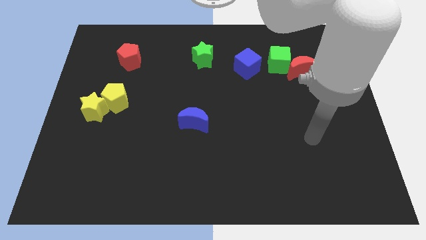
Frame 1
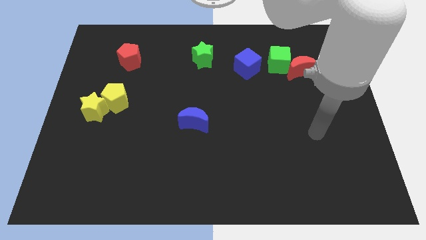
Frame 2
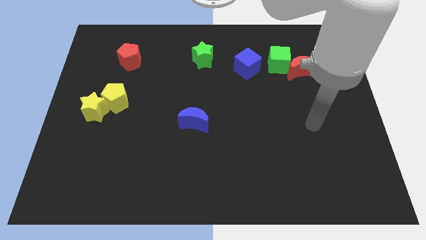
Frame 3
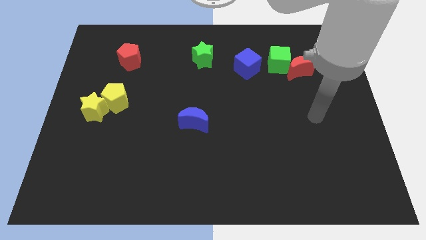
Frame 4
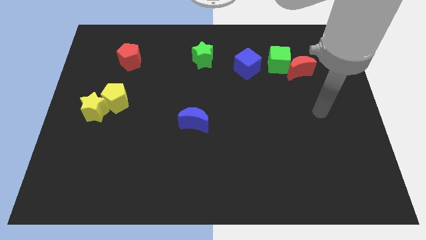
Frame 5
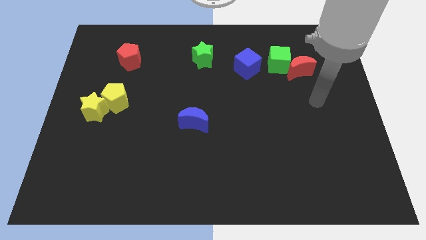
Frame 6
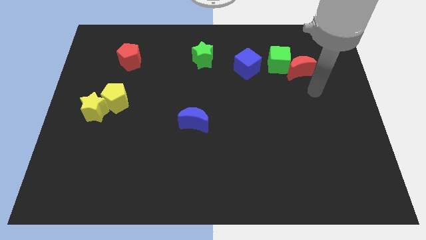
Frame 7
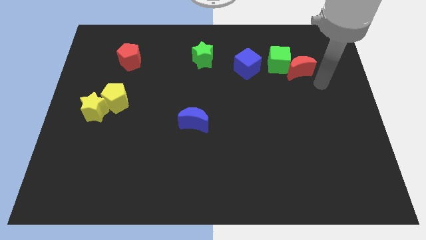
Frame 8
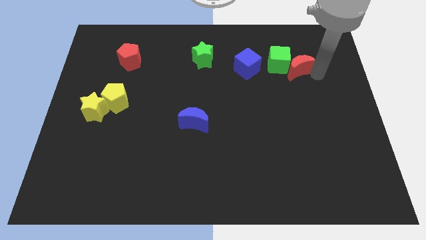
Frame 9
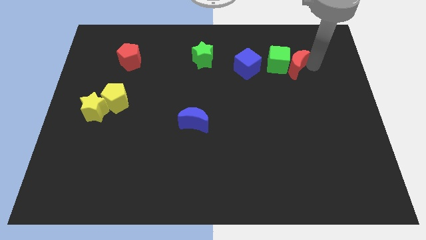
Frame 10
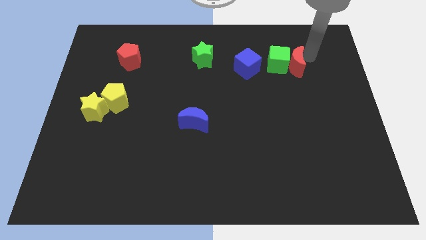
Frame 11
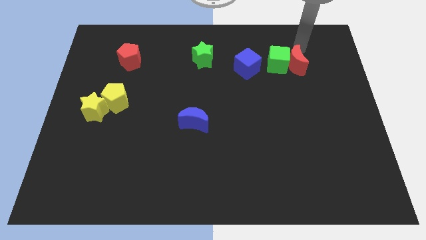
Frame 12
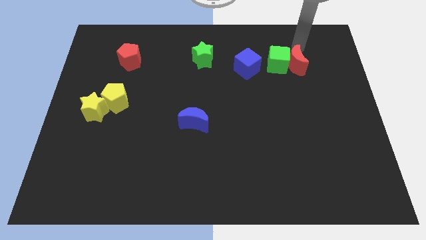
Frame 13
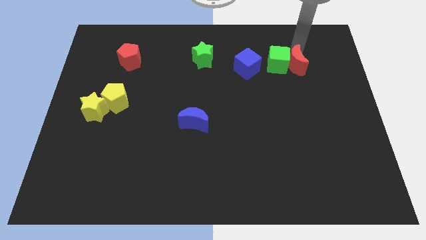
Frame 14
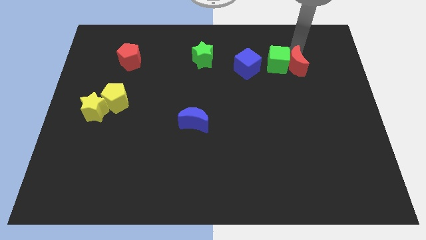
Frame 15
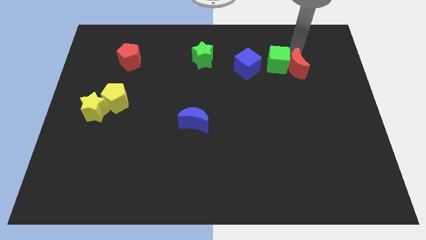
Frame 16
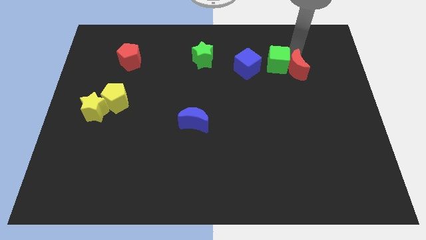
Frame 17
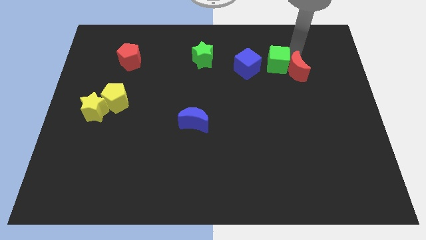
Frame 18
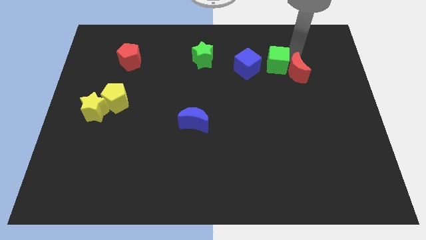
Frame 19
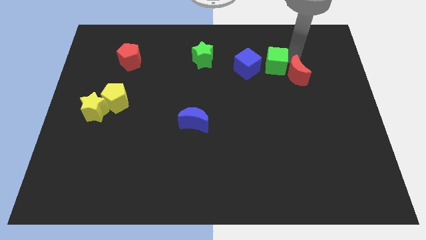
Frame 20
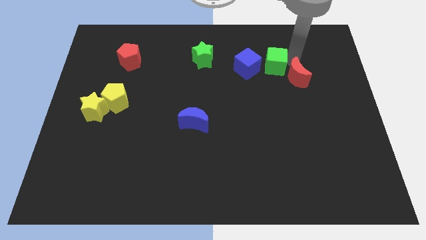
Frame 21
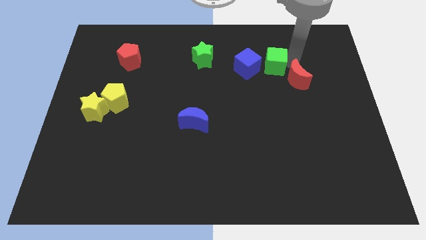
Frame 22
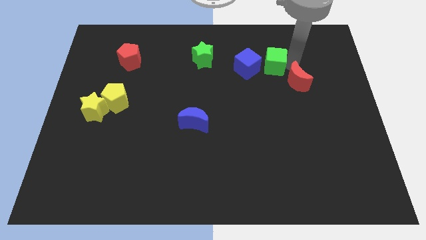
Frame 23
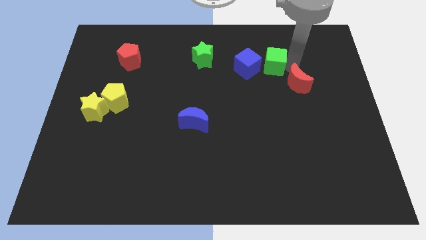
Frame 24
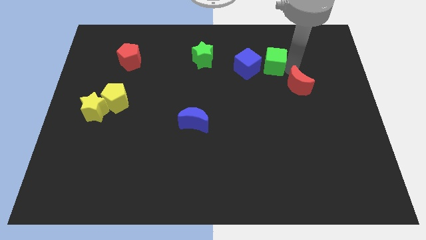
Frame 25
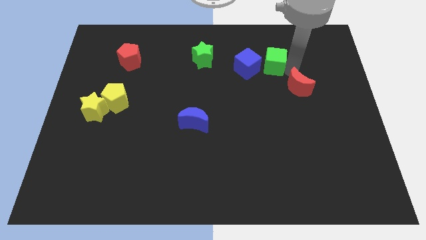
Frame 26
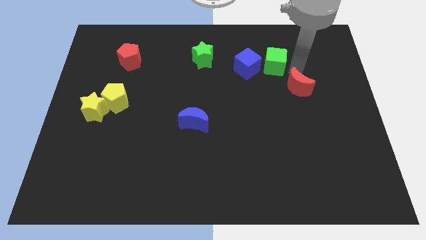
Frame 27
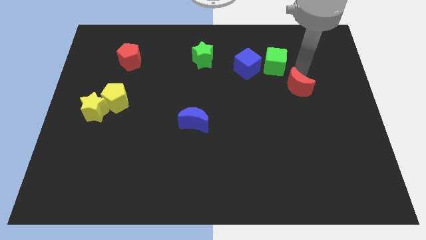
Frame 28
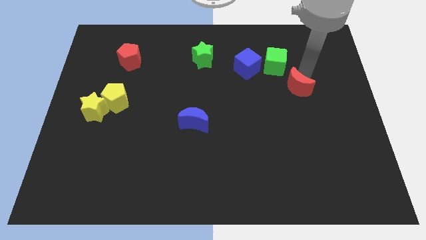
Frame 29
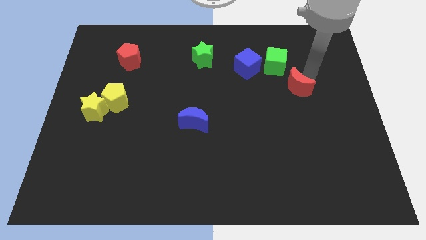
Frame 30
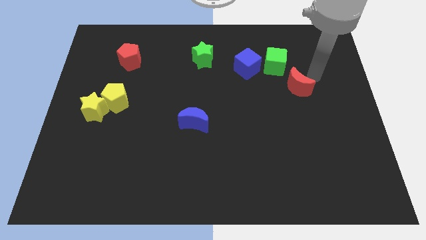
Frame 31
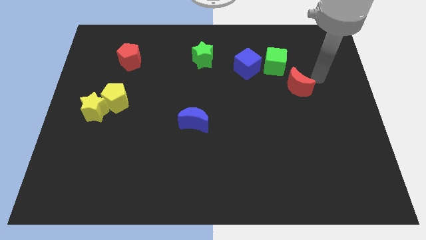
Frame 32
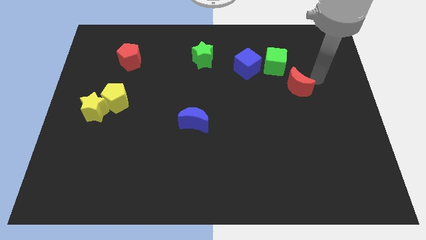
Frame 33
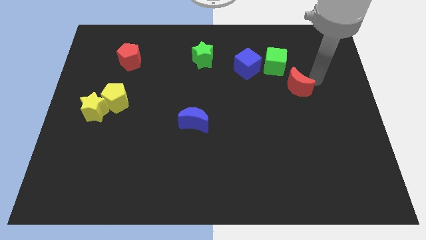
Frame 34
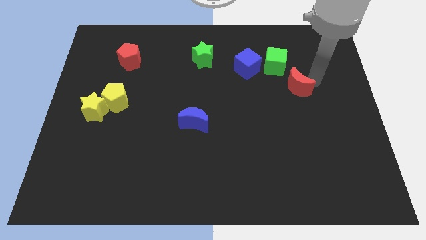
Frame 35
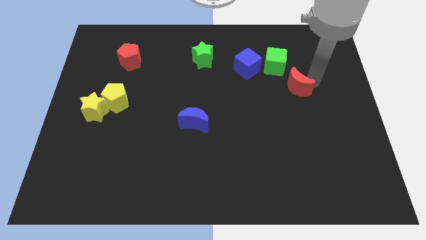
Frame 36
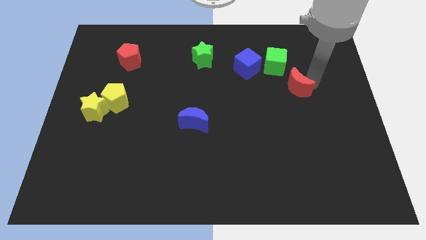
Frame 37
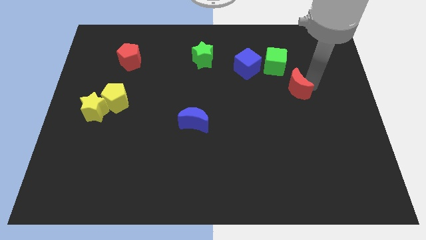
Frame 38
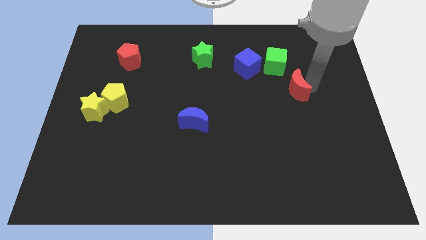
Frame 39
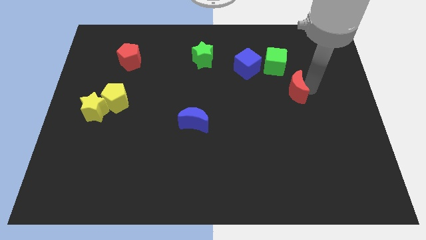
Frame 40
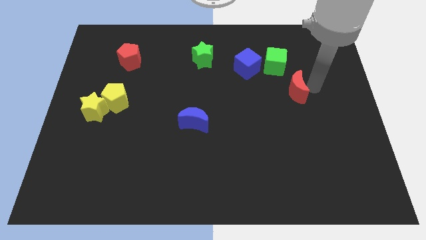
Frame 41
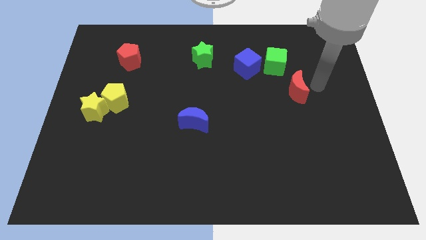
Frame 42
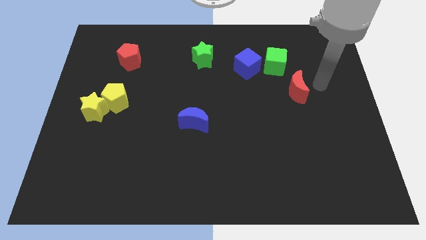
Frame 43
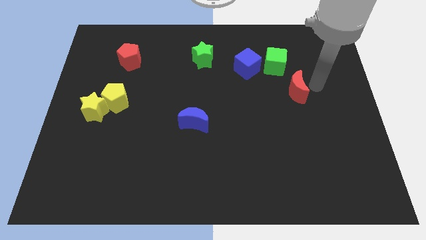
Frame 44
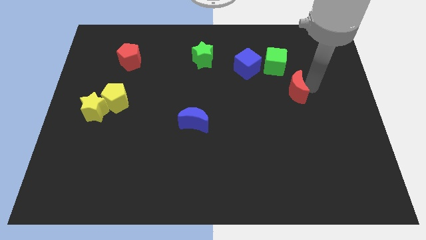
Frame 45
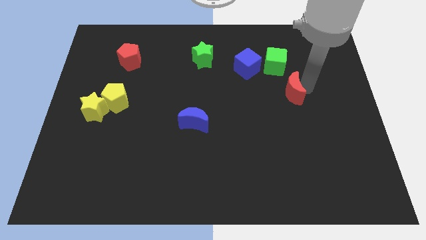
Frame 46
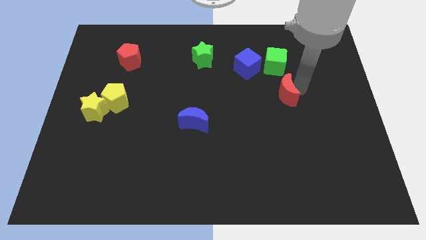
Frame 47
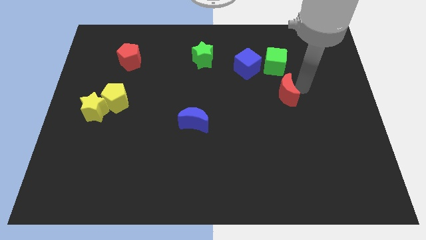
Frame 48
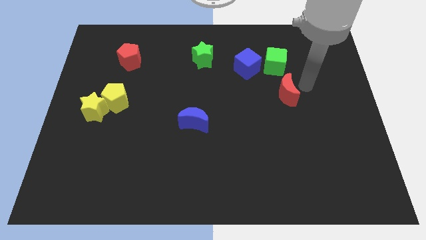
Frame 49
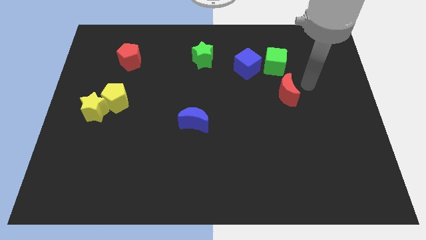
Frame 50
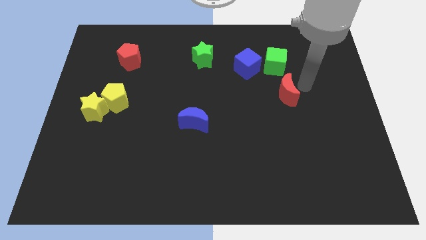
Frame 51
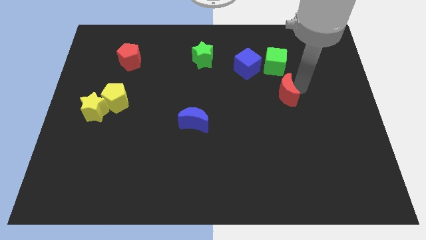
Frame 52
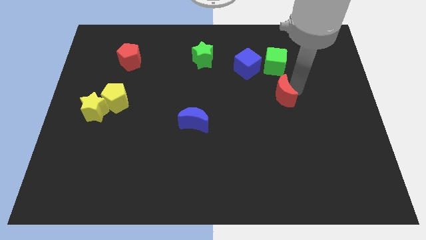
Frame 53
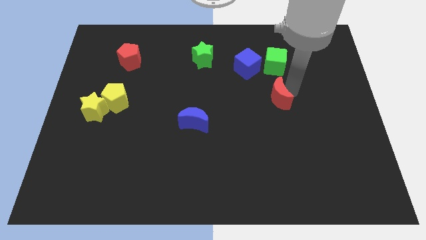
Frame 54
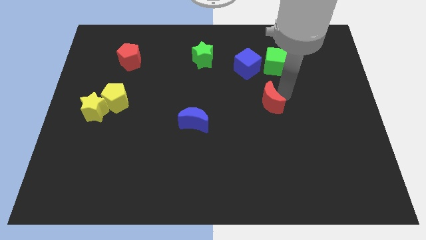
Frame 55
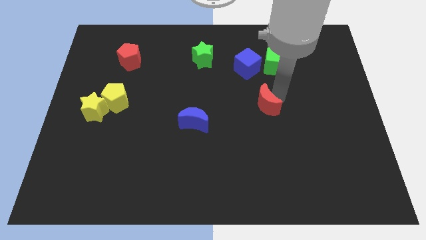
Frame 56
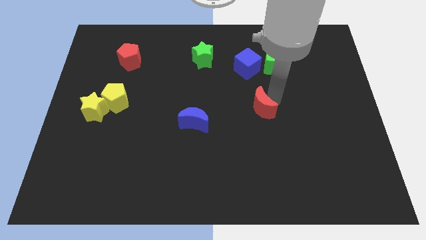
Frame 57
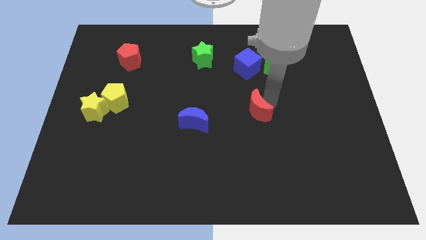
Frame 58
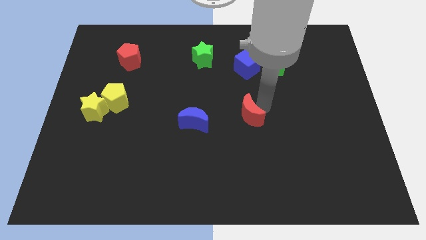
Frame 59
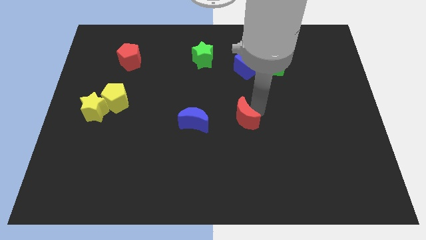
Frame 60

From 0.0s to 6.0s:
push the red moon down and to the left diagonally

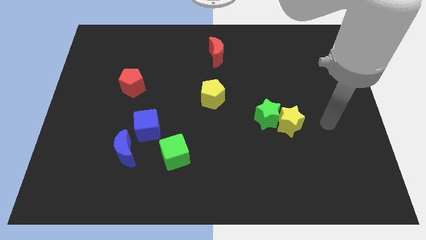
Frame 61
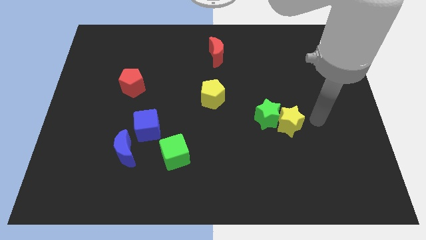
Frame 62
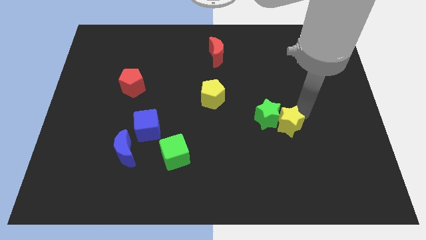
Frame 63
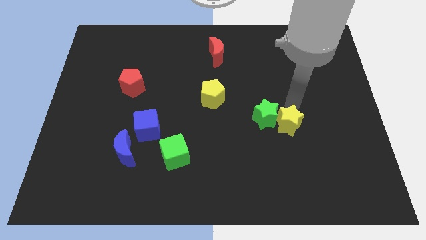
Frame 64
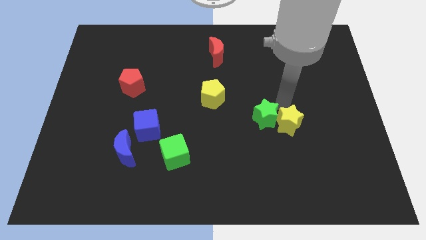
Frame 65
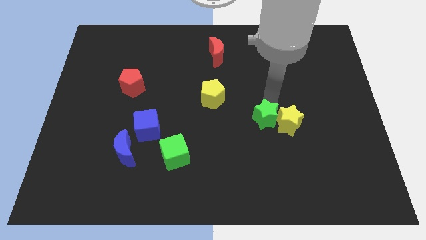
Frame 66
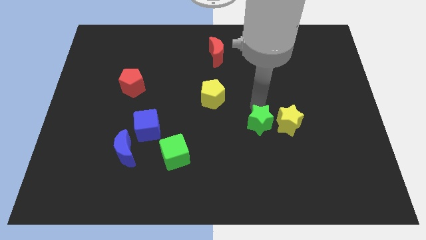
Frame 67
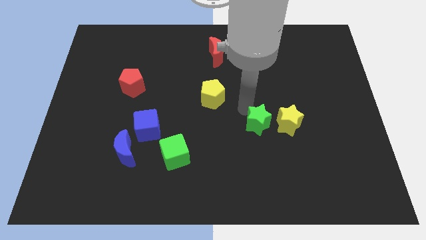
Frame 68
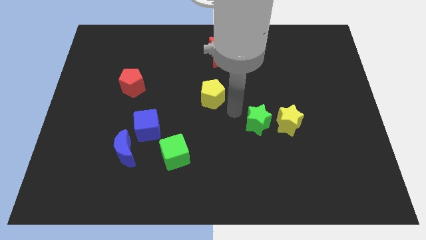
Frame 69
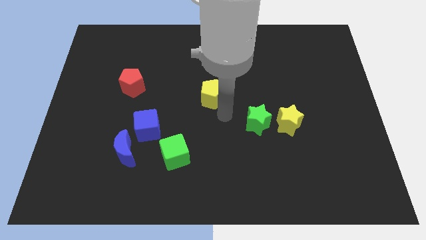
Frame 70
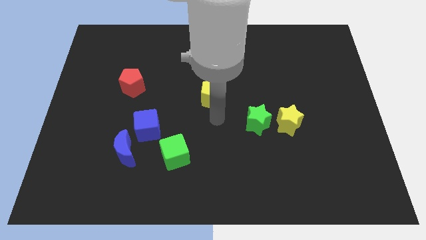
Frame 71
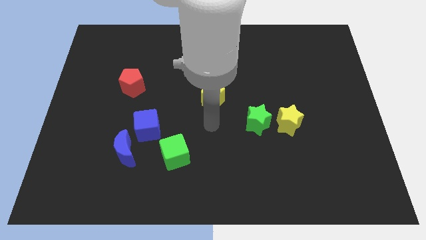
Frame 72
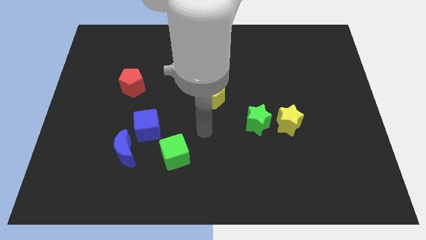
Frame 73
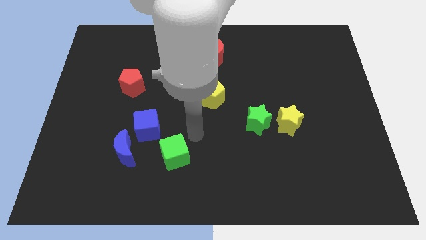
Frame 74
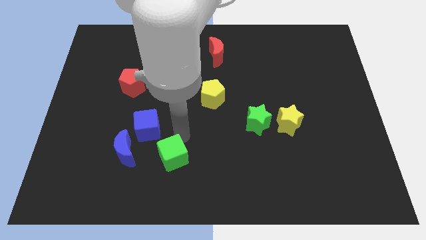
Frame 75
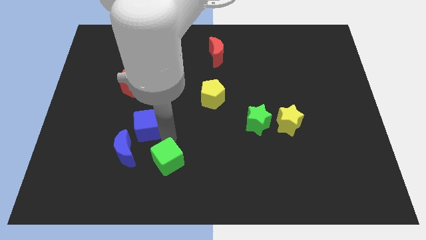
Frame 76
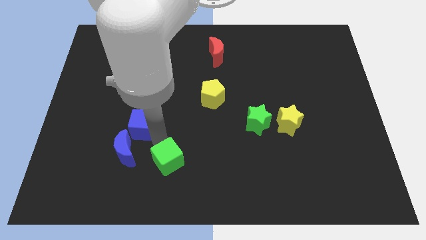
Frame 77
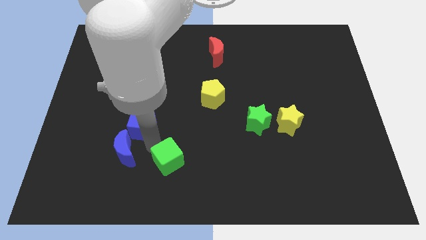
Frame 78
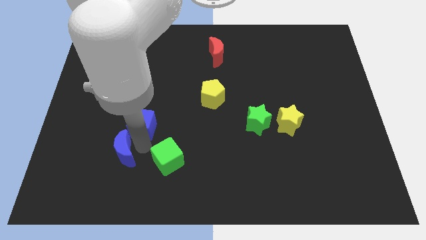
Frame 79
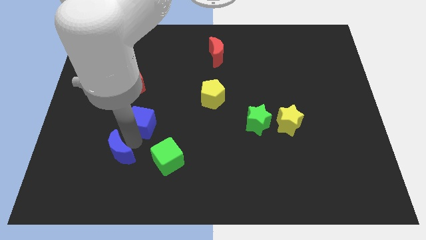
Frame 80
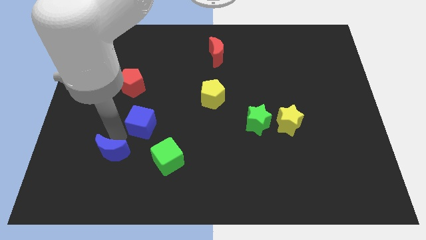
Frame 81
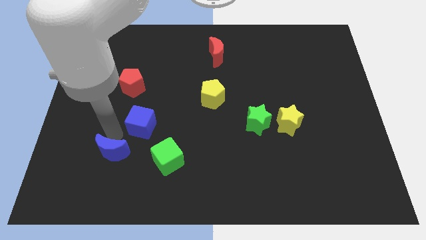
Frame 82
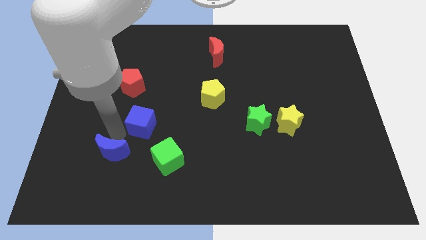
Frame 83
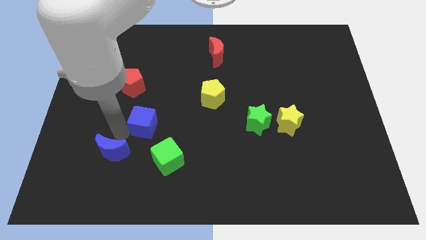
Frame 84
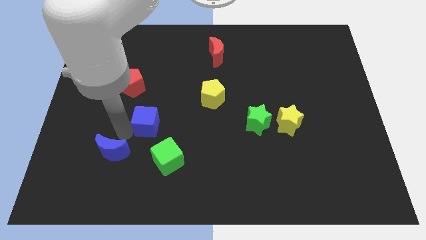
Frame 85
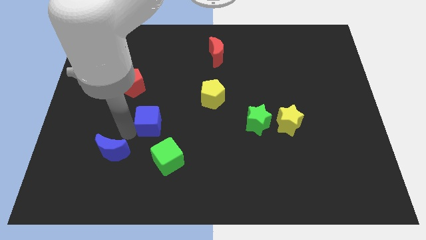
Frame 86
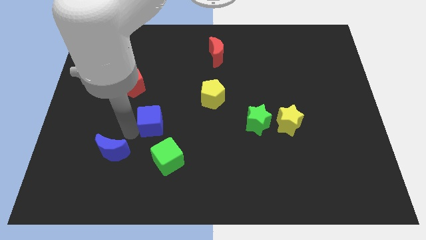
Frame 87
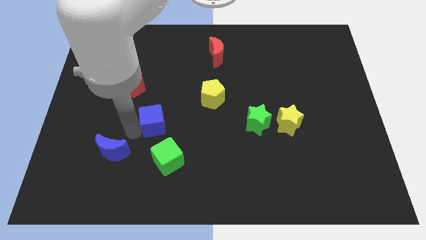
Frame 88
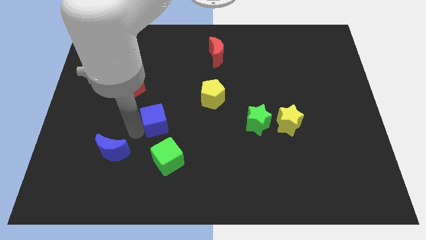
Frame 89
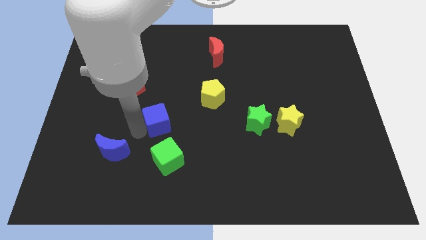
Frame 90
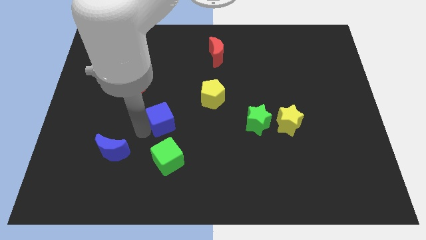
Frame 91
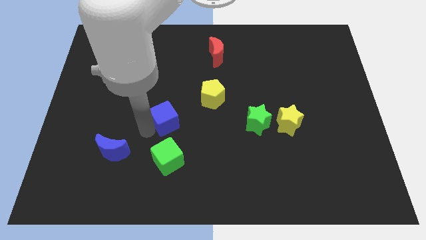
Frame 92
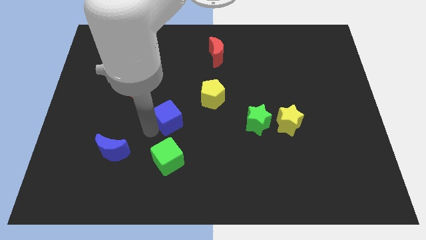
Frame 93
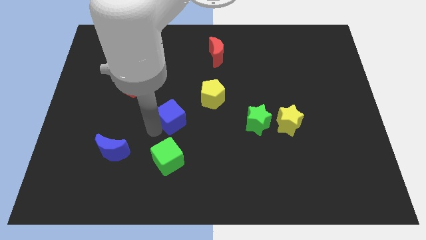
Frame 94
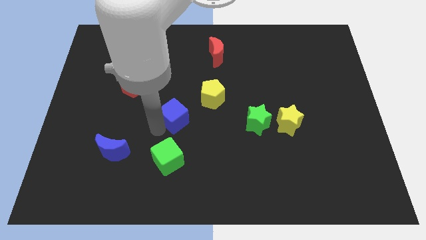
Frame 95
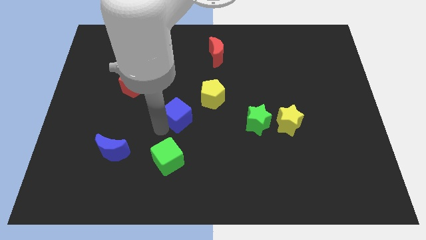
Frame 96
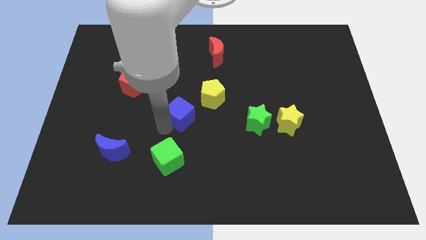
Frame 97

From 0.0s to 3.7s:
move the blue cube up and right diagonally somewhat
